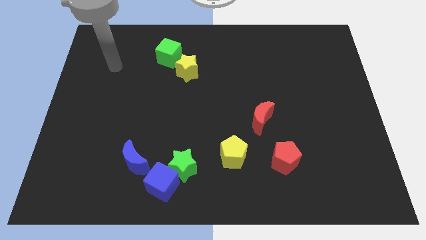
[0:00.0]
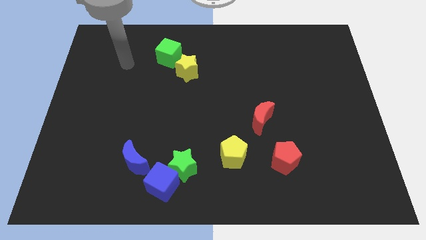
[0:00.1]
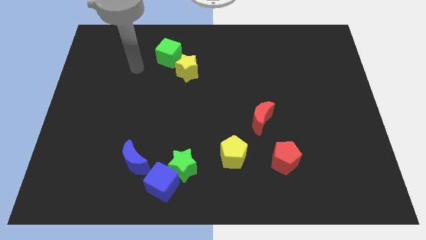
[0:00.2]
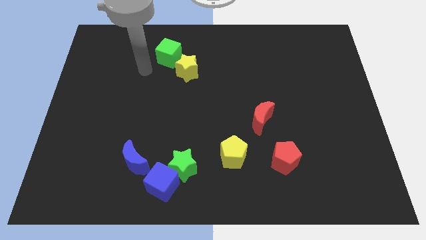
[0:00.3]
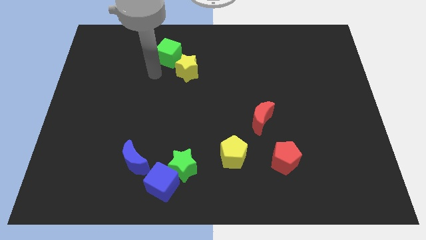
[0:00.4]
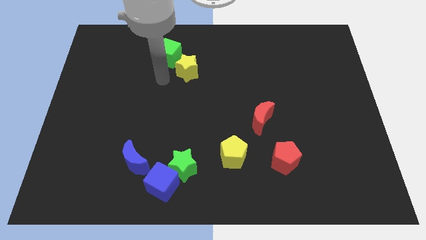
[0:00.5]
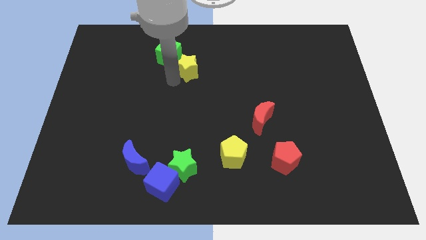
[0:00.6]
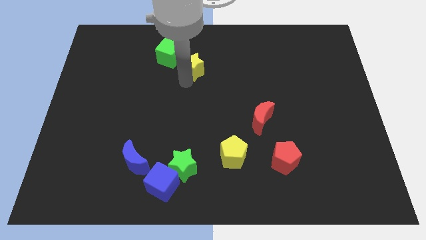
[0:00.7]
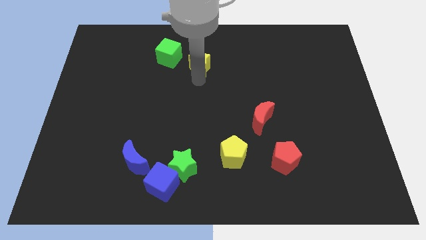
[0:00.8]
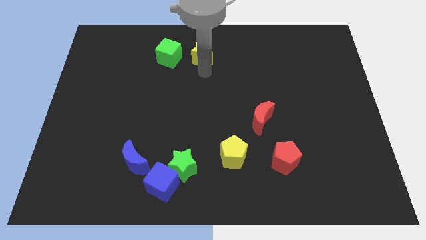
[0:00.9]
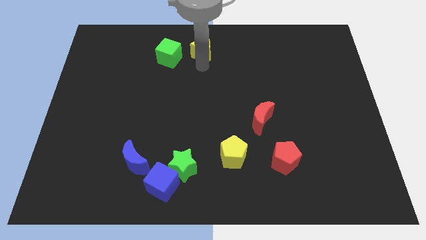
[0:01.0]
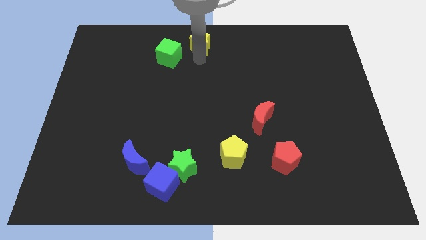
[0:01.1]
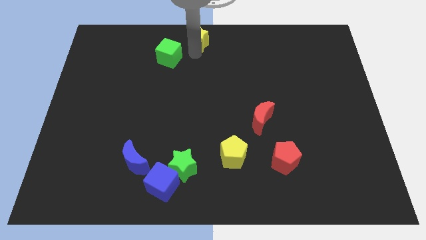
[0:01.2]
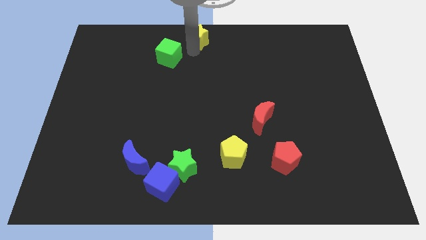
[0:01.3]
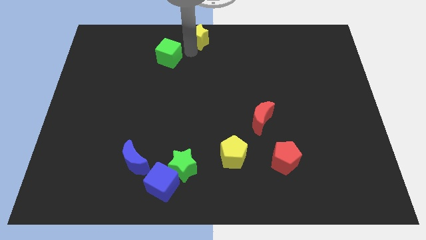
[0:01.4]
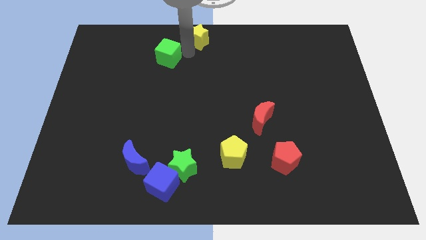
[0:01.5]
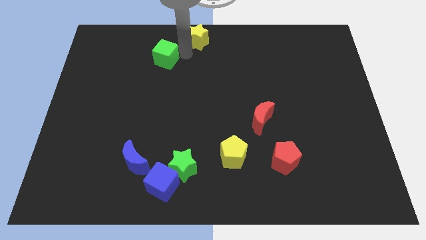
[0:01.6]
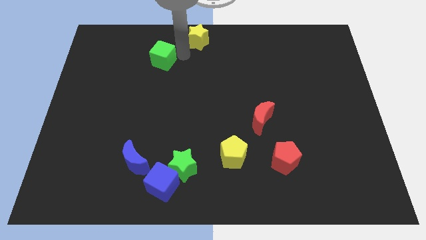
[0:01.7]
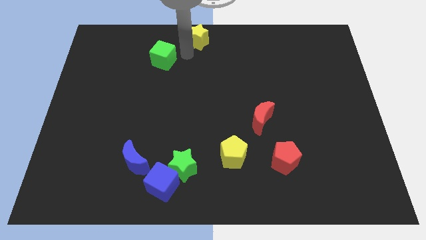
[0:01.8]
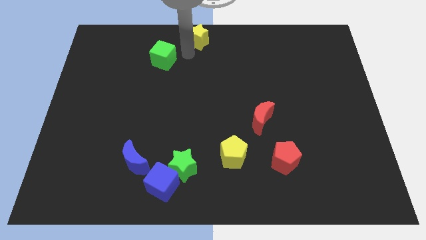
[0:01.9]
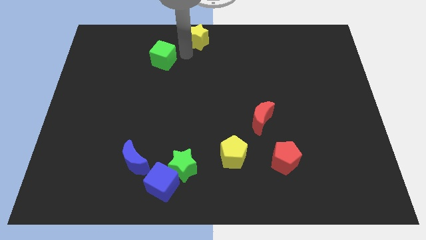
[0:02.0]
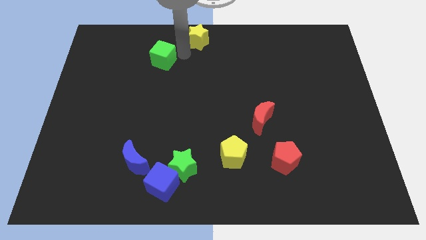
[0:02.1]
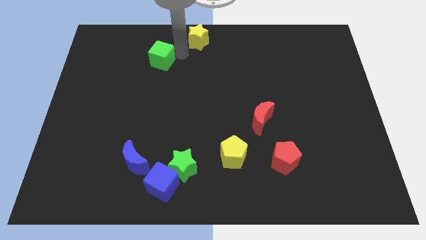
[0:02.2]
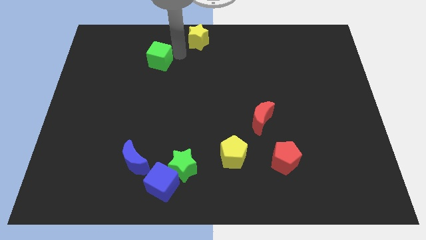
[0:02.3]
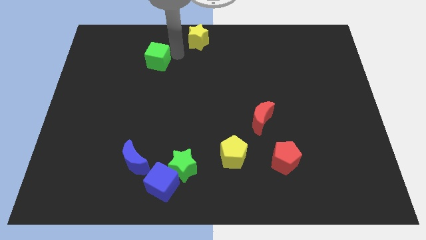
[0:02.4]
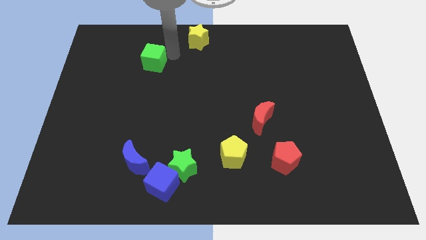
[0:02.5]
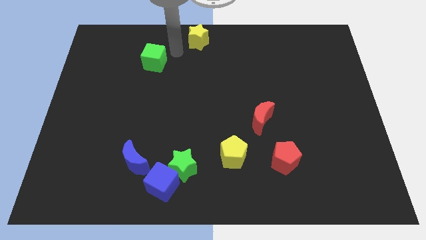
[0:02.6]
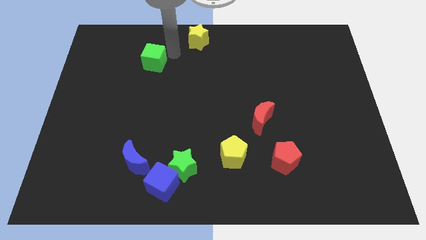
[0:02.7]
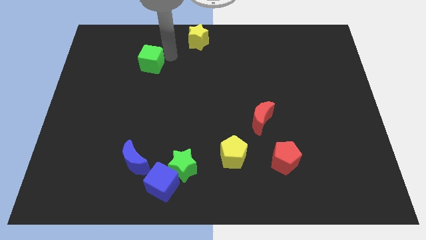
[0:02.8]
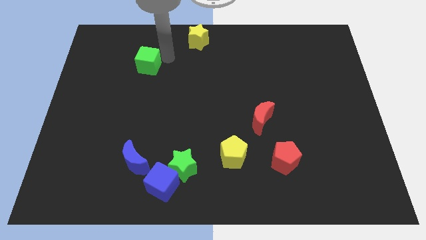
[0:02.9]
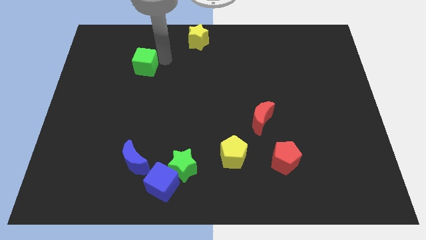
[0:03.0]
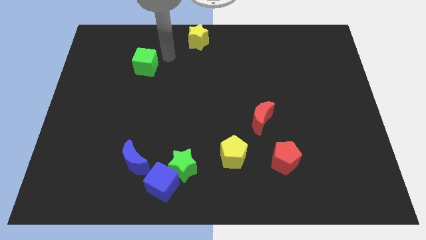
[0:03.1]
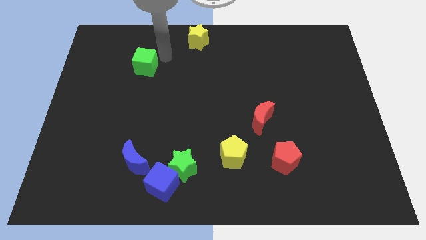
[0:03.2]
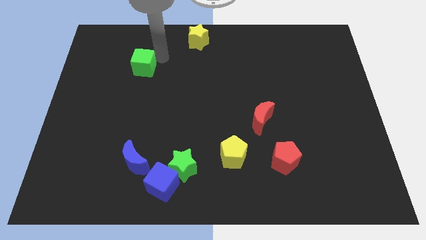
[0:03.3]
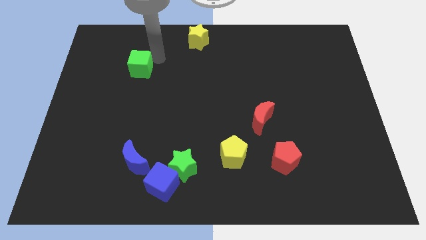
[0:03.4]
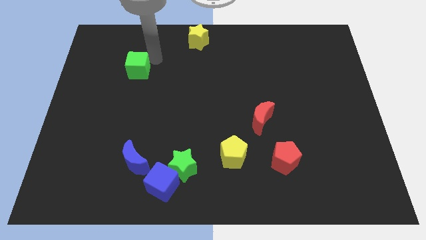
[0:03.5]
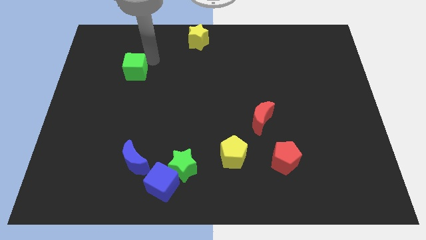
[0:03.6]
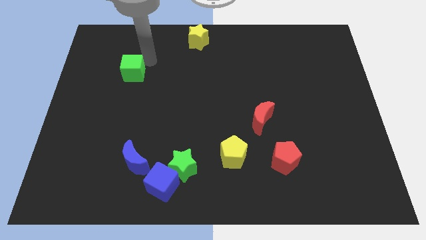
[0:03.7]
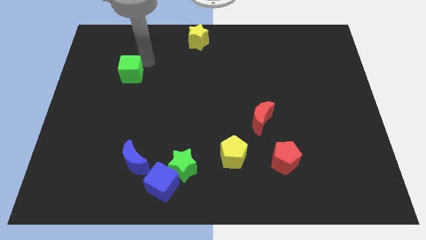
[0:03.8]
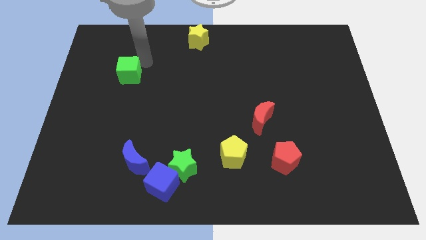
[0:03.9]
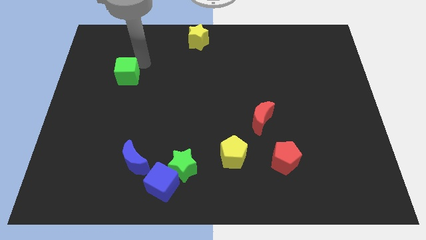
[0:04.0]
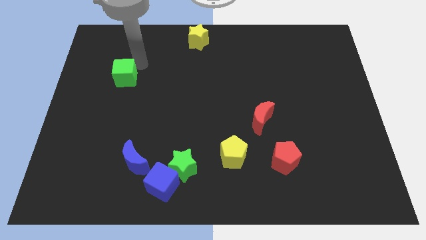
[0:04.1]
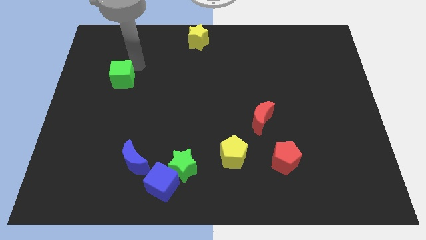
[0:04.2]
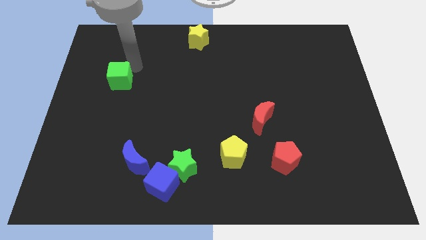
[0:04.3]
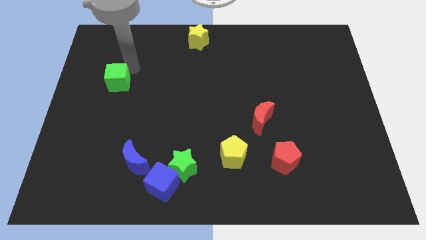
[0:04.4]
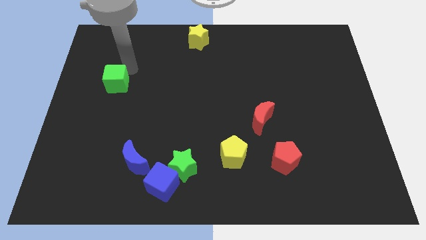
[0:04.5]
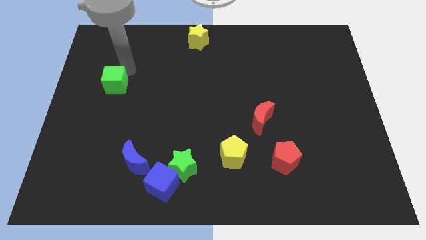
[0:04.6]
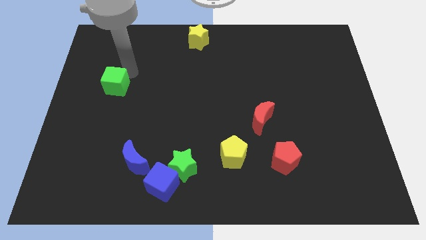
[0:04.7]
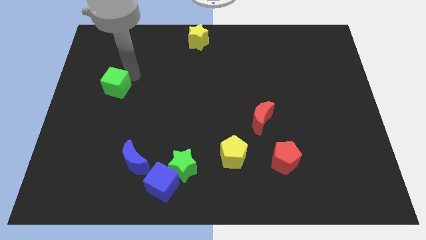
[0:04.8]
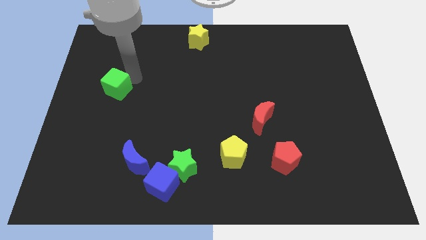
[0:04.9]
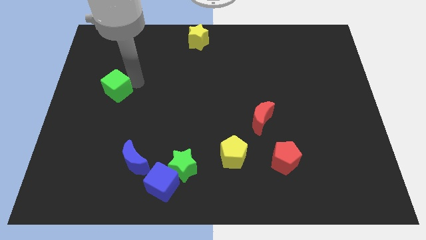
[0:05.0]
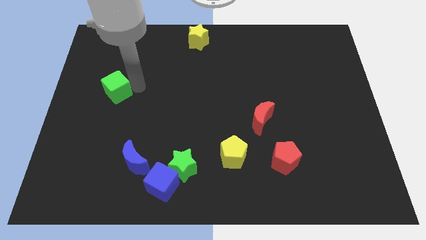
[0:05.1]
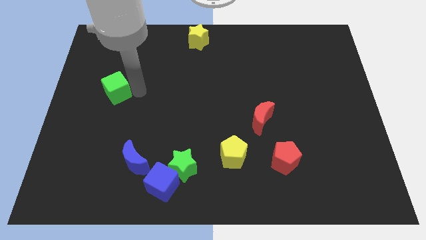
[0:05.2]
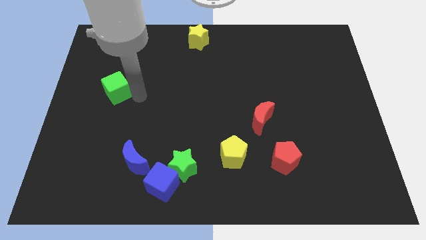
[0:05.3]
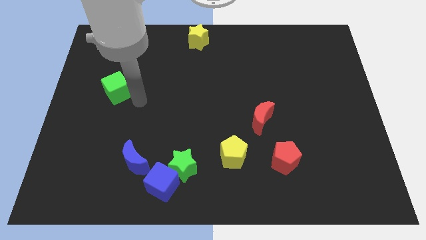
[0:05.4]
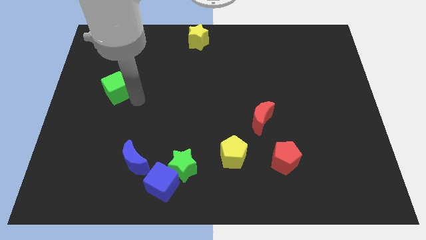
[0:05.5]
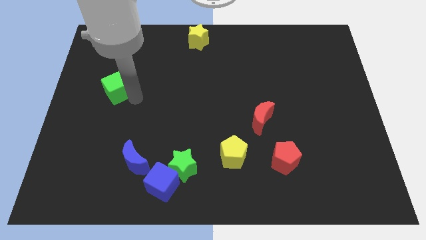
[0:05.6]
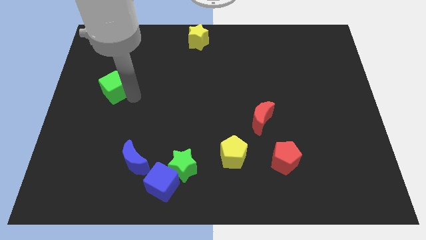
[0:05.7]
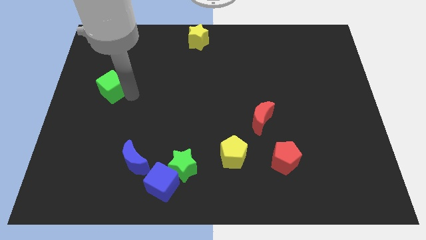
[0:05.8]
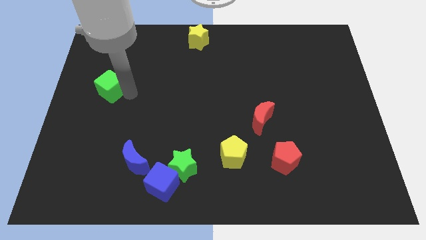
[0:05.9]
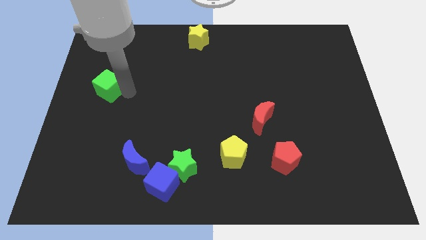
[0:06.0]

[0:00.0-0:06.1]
slide the green cube to the center left

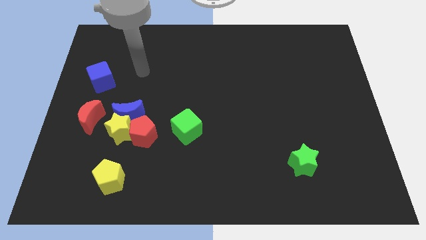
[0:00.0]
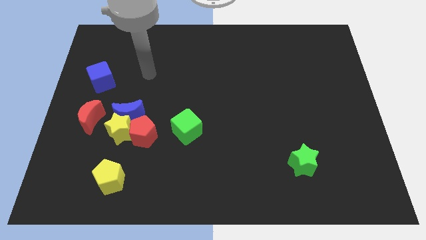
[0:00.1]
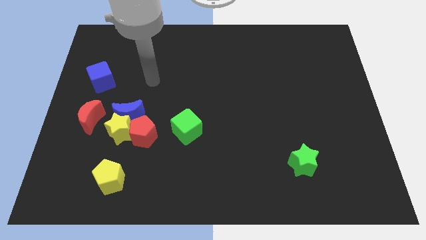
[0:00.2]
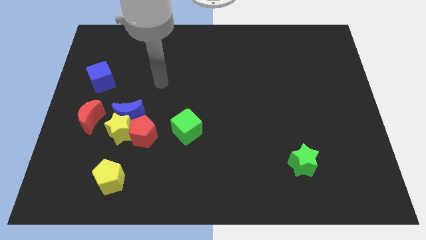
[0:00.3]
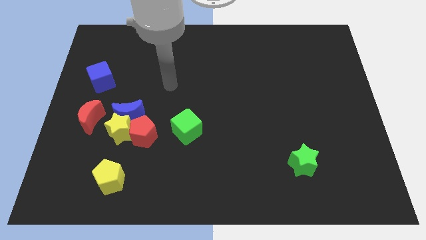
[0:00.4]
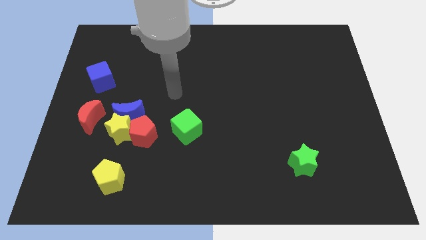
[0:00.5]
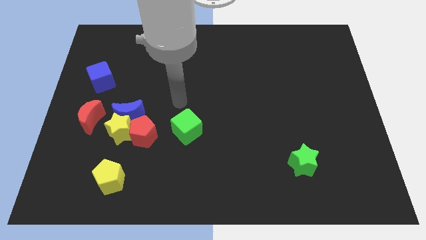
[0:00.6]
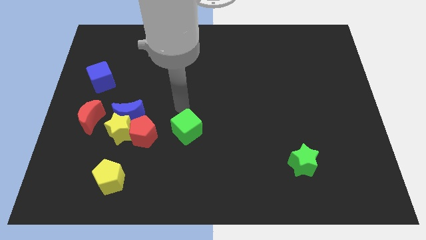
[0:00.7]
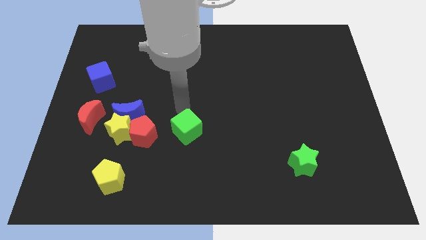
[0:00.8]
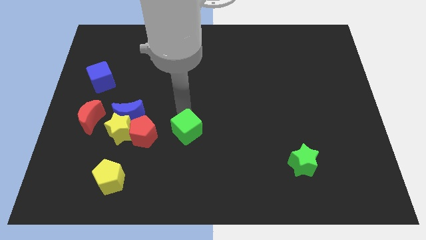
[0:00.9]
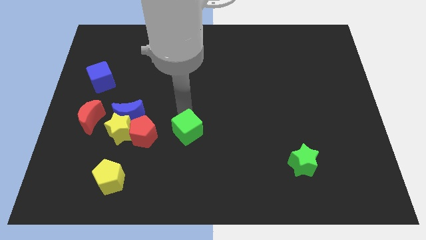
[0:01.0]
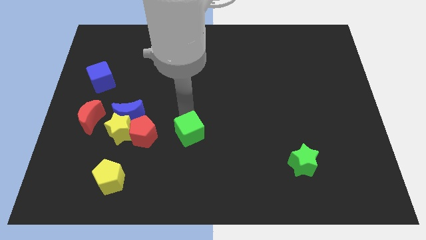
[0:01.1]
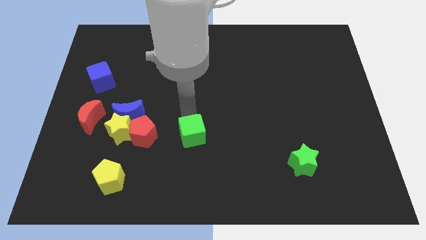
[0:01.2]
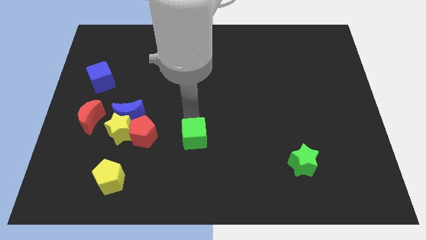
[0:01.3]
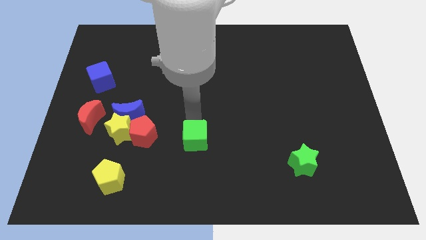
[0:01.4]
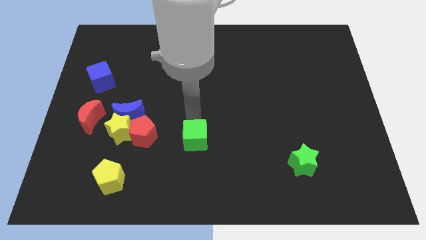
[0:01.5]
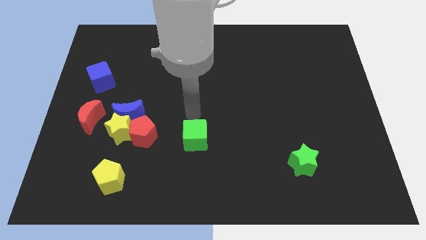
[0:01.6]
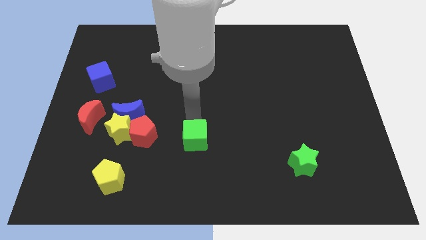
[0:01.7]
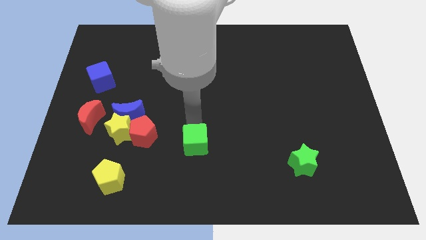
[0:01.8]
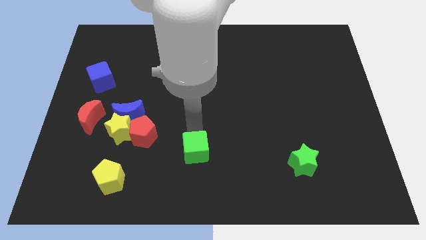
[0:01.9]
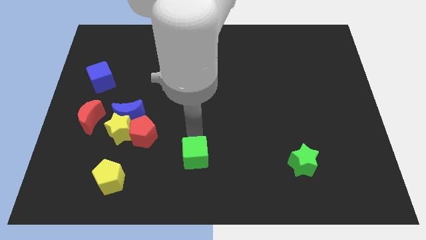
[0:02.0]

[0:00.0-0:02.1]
put the green cube to the bottom side
